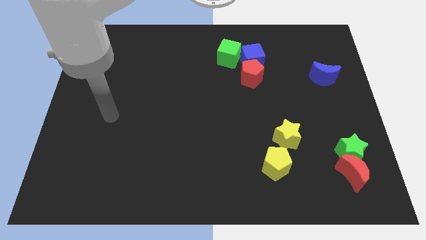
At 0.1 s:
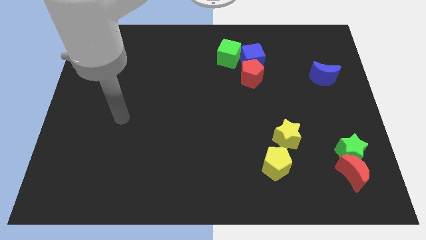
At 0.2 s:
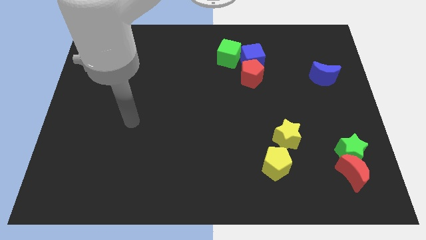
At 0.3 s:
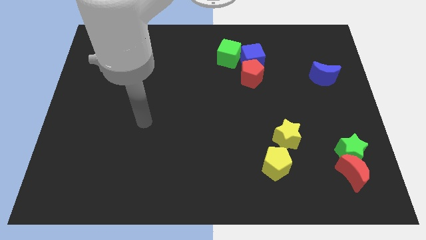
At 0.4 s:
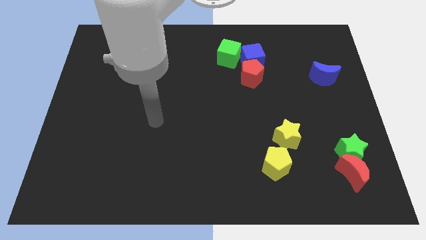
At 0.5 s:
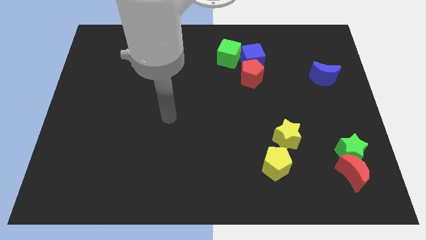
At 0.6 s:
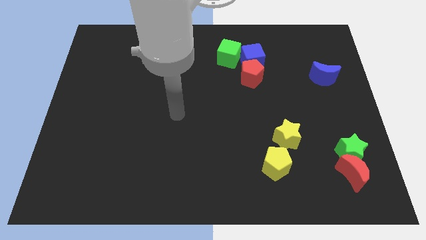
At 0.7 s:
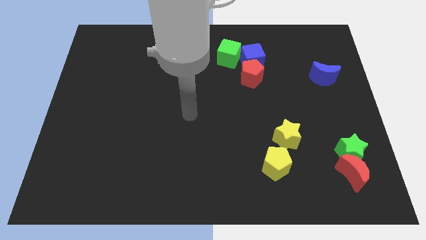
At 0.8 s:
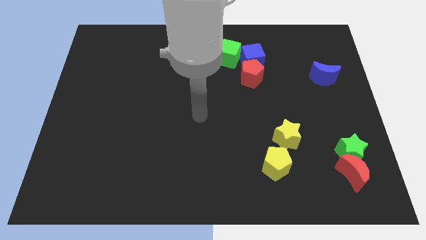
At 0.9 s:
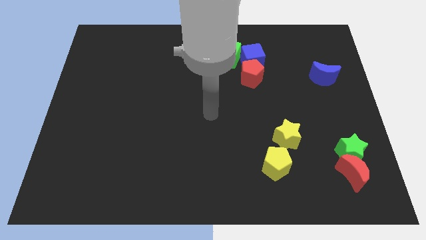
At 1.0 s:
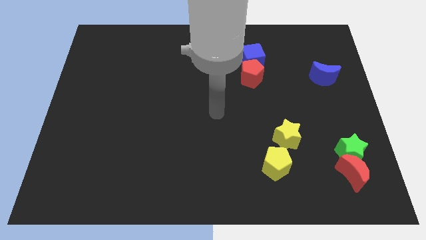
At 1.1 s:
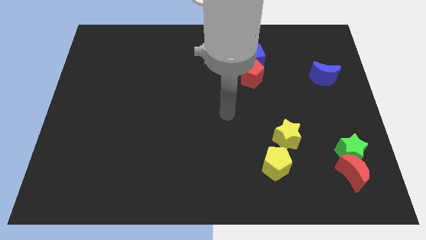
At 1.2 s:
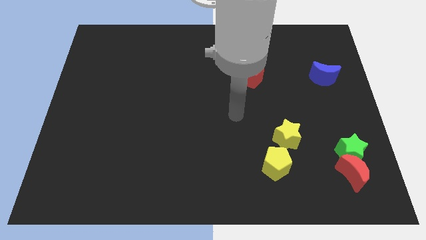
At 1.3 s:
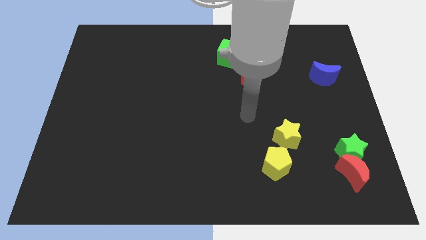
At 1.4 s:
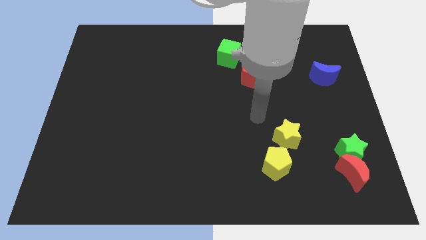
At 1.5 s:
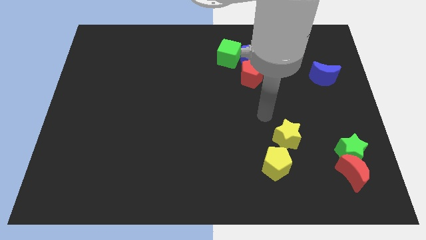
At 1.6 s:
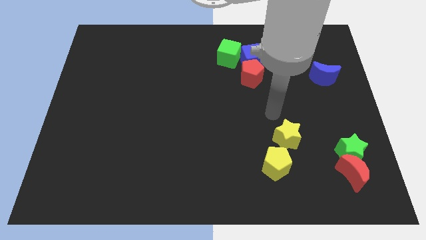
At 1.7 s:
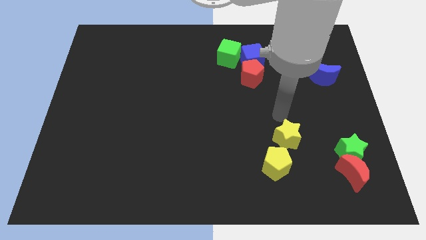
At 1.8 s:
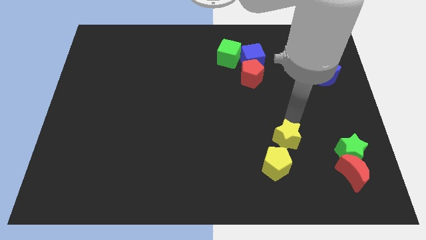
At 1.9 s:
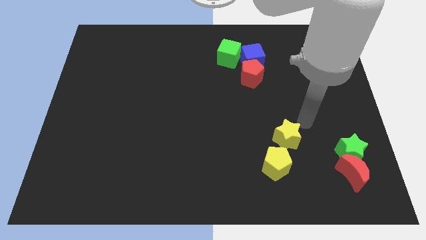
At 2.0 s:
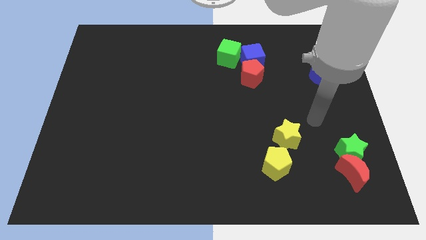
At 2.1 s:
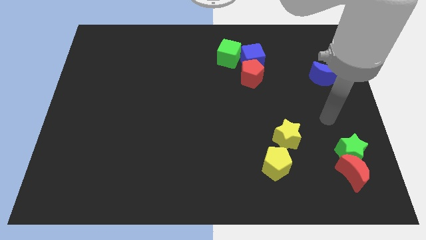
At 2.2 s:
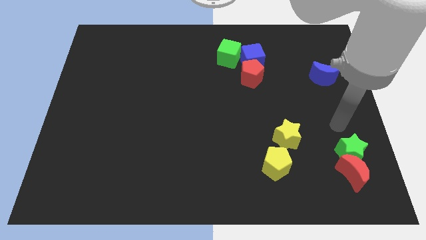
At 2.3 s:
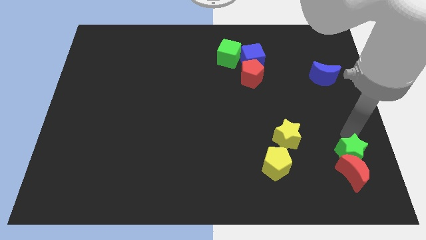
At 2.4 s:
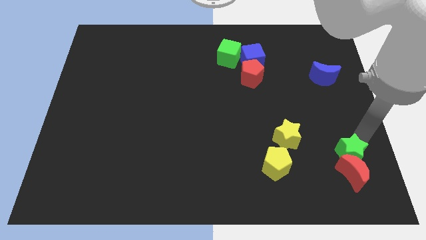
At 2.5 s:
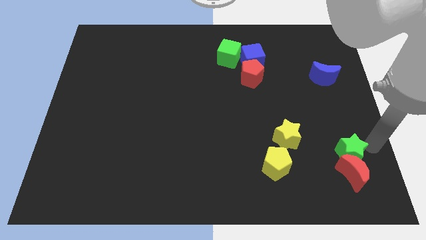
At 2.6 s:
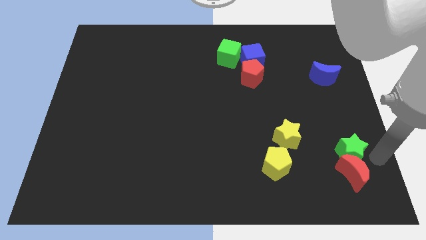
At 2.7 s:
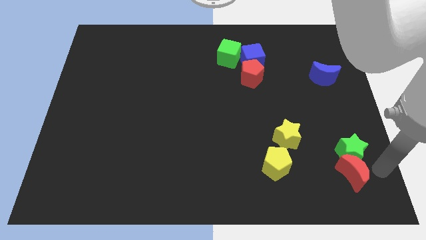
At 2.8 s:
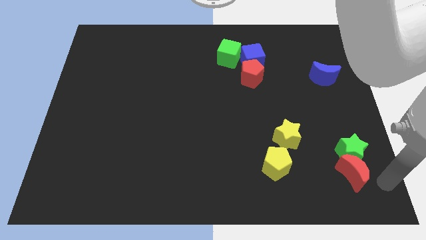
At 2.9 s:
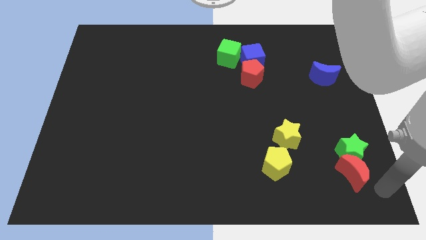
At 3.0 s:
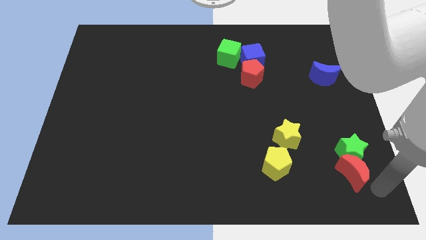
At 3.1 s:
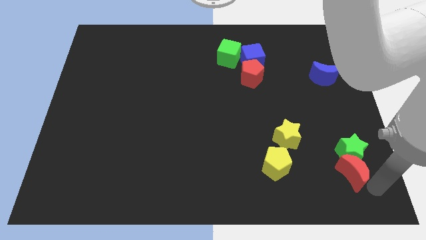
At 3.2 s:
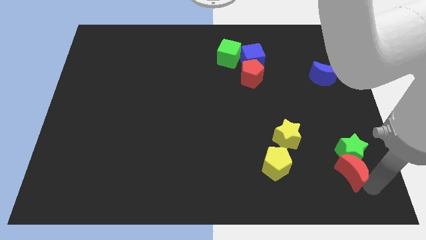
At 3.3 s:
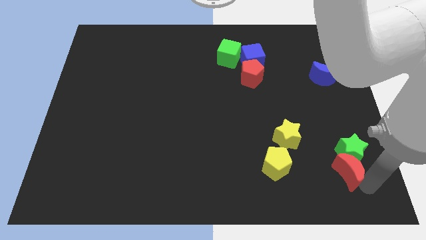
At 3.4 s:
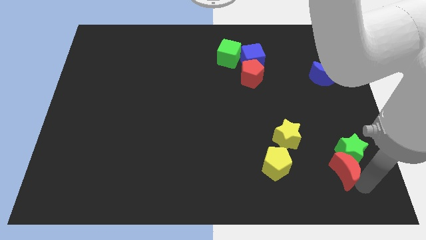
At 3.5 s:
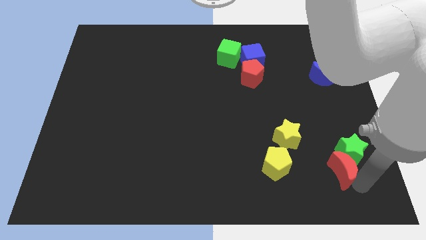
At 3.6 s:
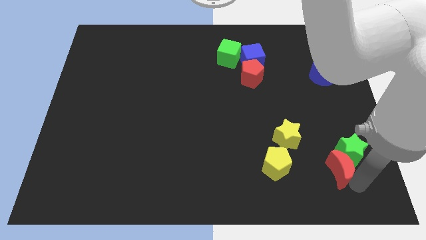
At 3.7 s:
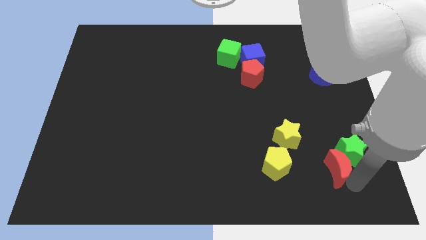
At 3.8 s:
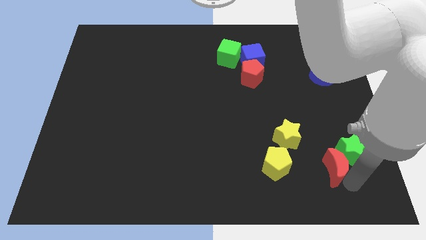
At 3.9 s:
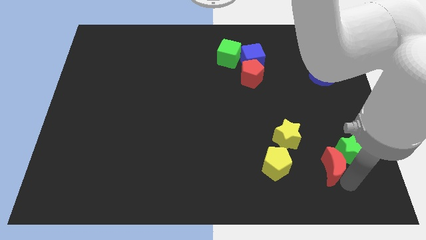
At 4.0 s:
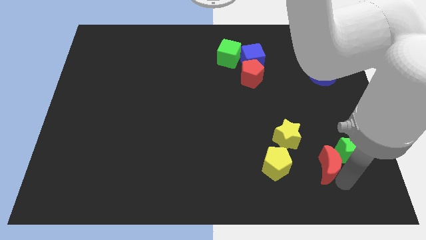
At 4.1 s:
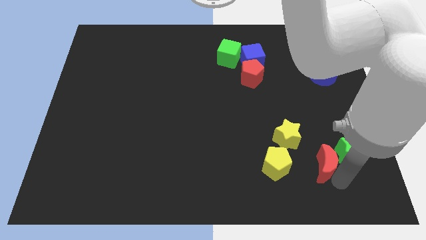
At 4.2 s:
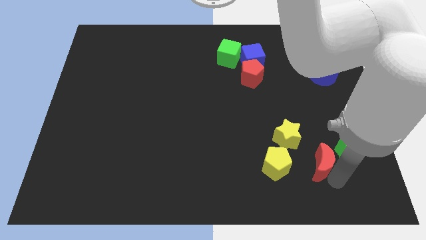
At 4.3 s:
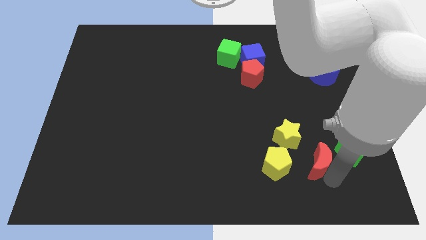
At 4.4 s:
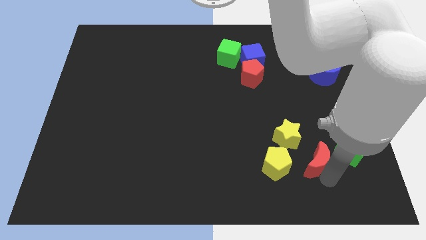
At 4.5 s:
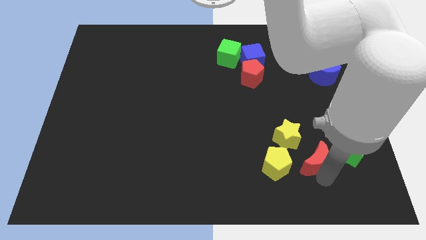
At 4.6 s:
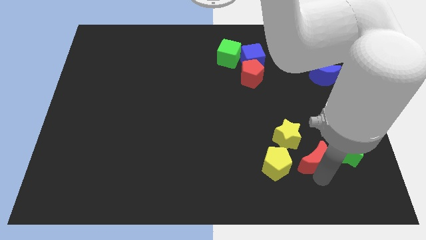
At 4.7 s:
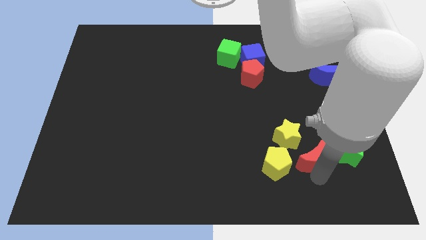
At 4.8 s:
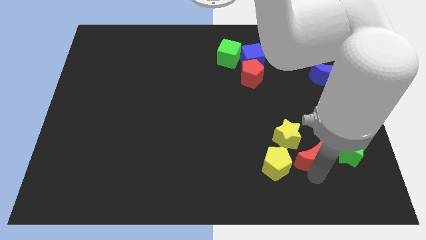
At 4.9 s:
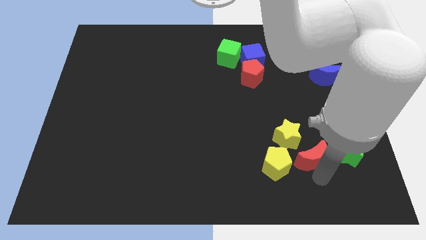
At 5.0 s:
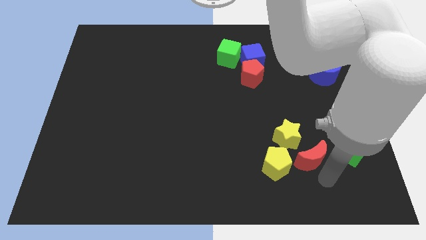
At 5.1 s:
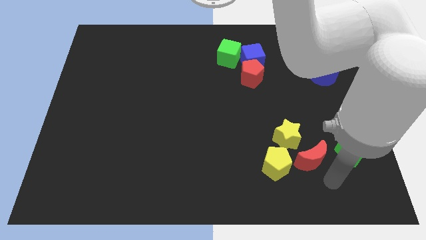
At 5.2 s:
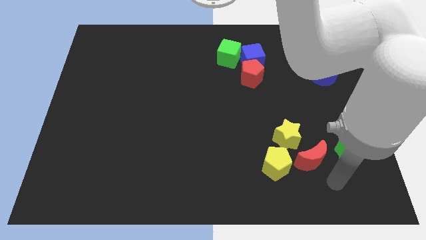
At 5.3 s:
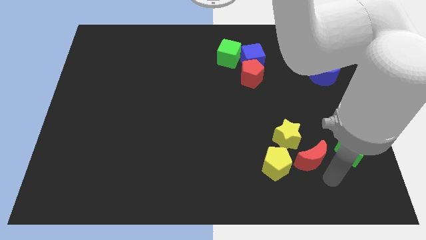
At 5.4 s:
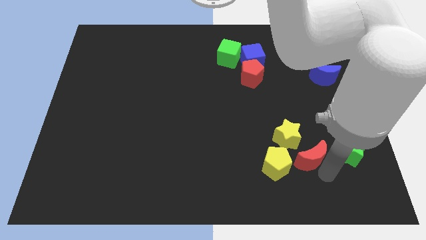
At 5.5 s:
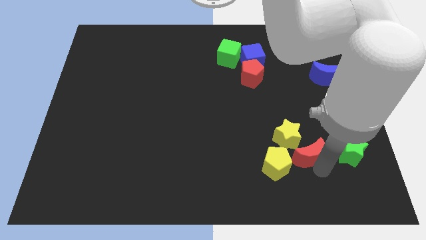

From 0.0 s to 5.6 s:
move the red moon next to the yellow star

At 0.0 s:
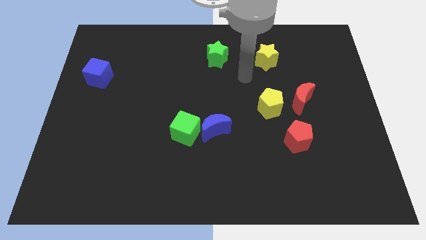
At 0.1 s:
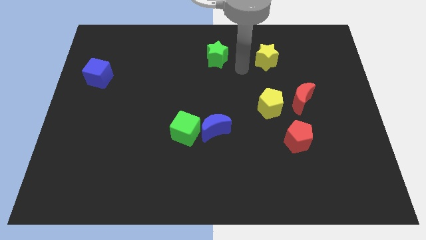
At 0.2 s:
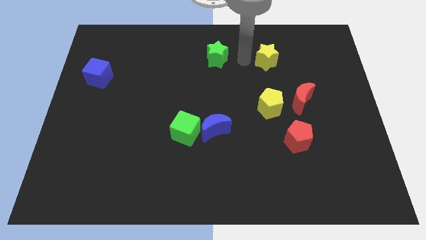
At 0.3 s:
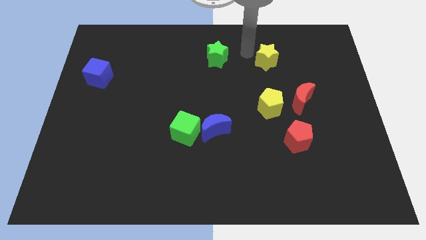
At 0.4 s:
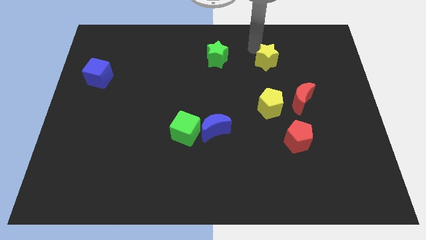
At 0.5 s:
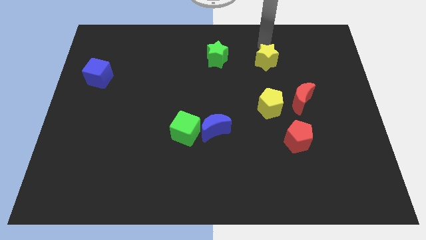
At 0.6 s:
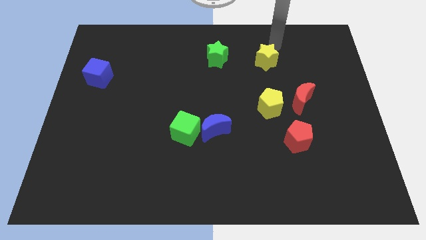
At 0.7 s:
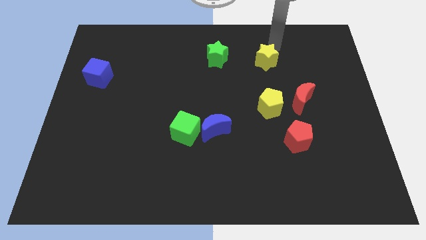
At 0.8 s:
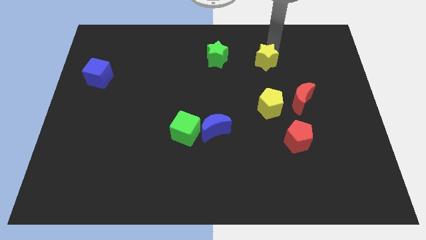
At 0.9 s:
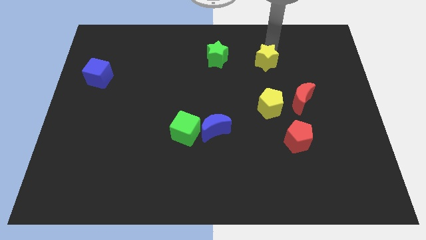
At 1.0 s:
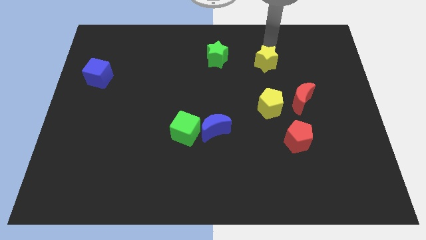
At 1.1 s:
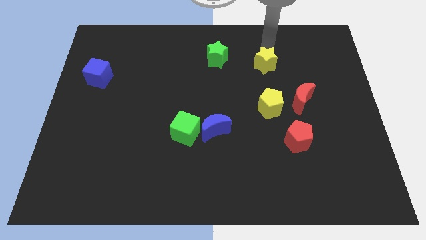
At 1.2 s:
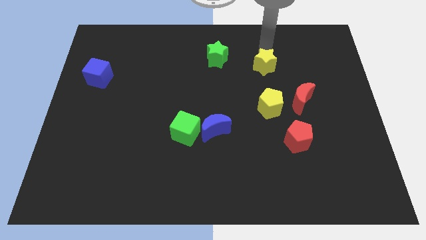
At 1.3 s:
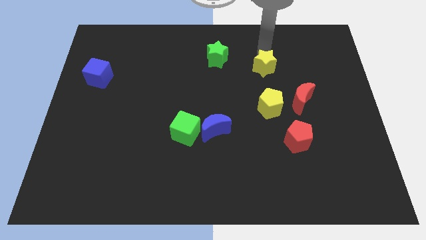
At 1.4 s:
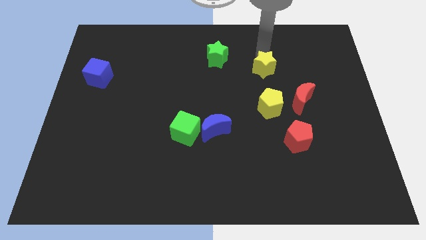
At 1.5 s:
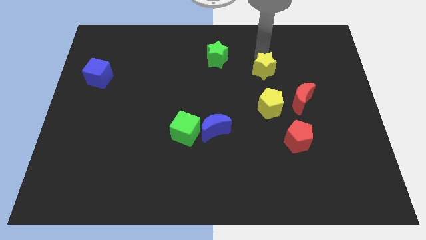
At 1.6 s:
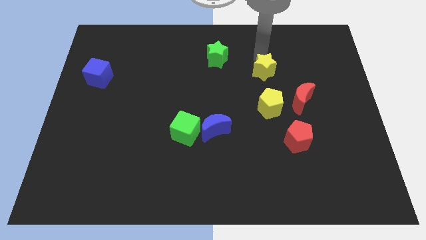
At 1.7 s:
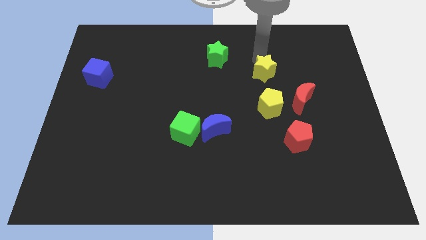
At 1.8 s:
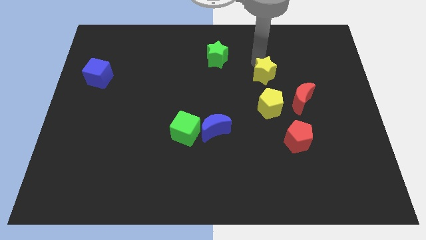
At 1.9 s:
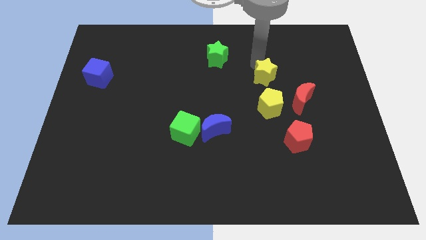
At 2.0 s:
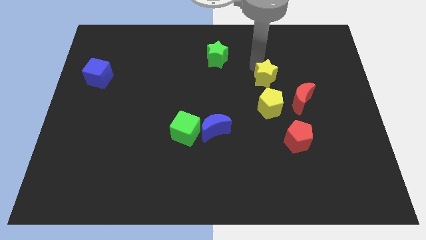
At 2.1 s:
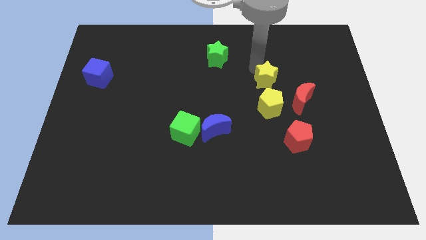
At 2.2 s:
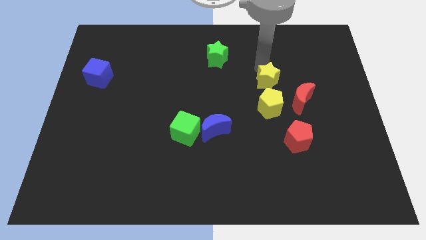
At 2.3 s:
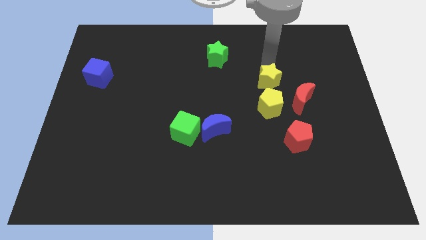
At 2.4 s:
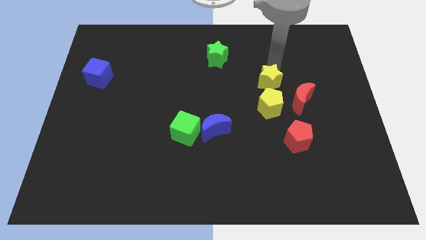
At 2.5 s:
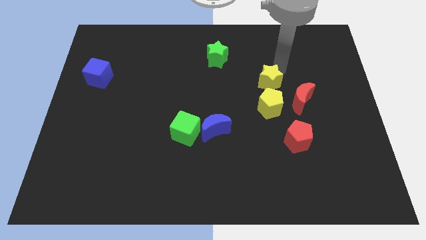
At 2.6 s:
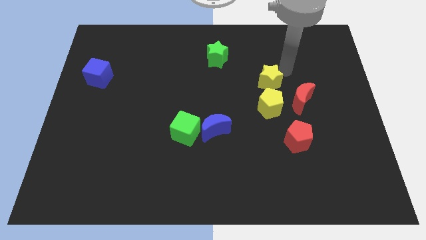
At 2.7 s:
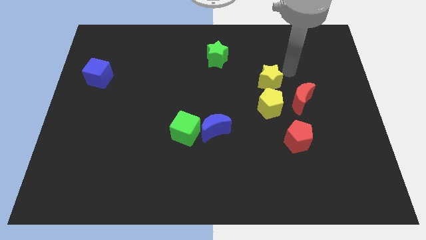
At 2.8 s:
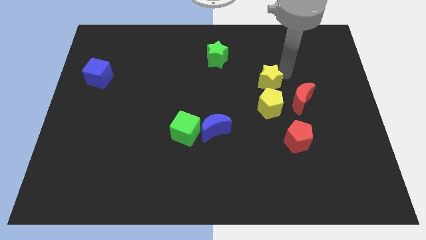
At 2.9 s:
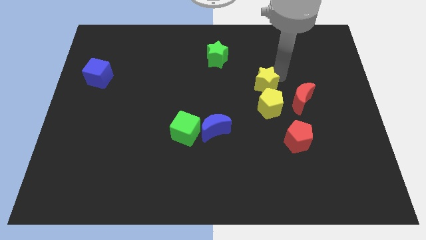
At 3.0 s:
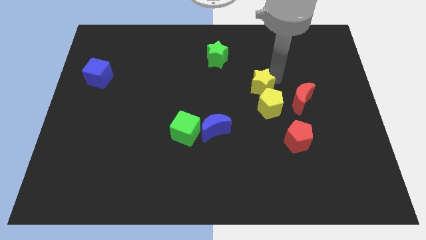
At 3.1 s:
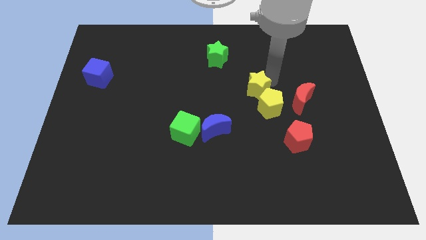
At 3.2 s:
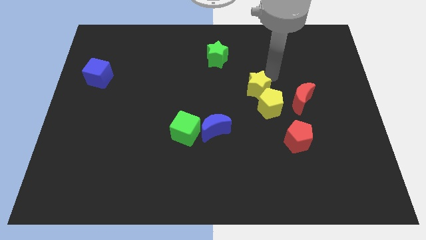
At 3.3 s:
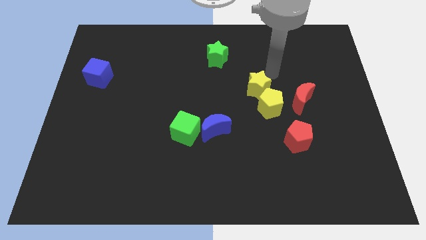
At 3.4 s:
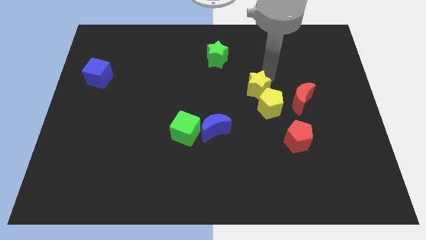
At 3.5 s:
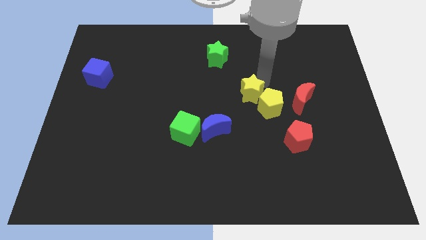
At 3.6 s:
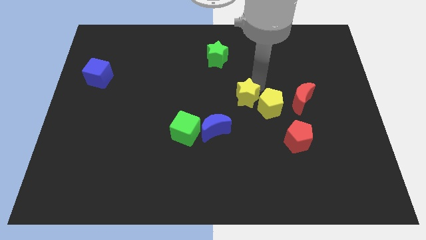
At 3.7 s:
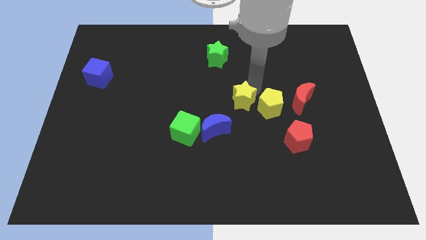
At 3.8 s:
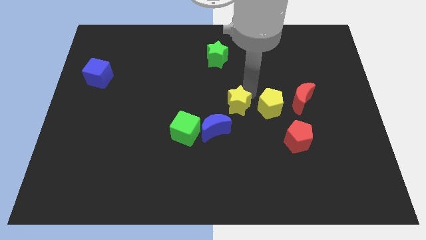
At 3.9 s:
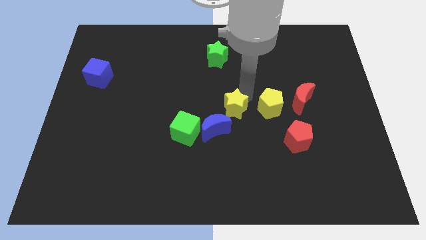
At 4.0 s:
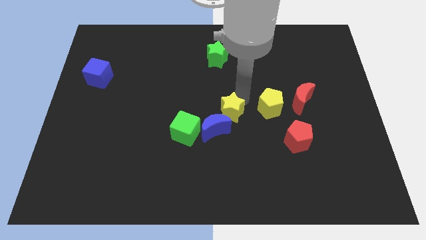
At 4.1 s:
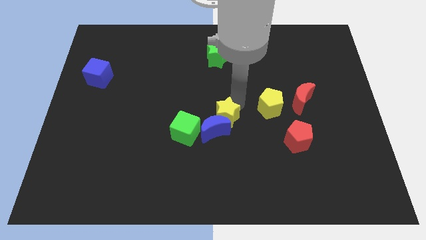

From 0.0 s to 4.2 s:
push the yellow star to the blue moon
